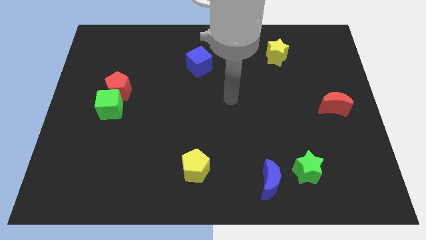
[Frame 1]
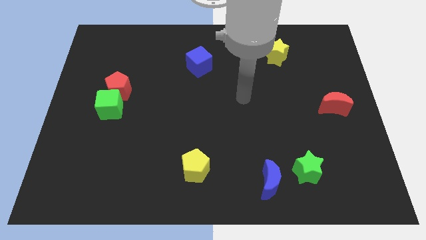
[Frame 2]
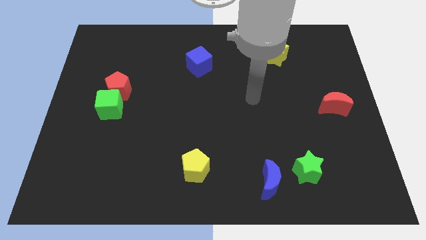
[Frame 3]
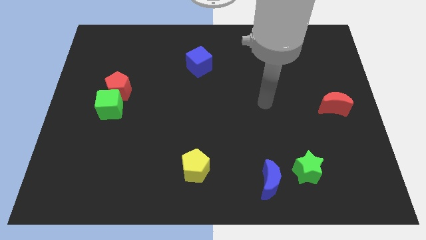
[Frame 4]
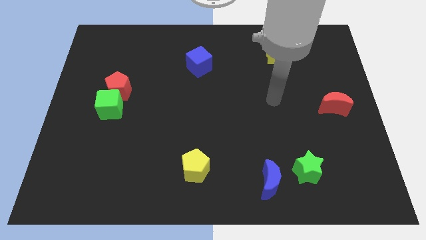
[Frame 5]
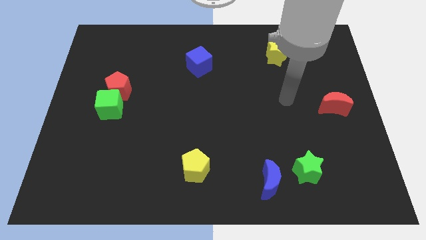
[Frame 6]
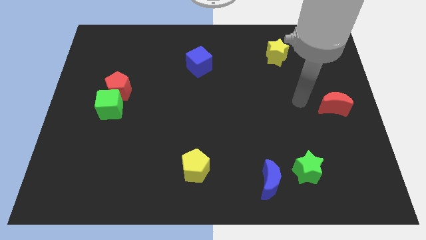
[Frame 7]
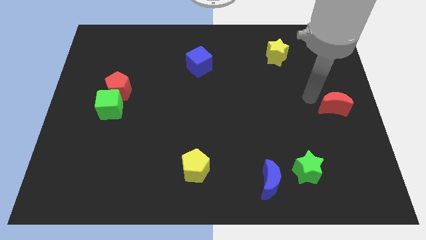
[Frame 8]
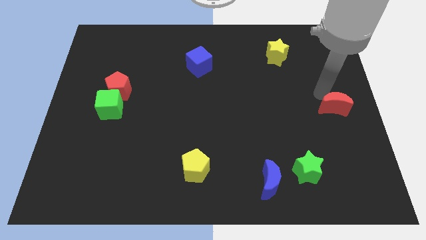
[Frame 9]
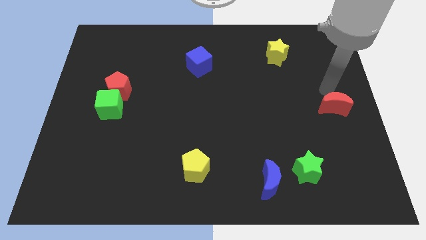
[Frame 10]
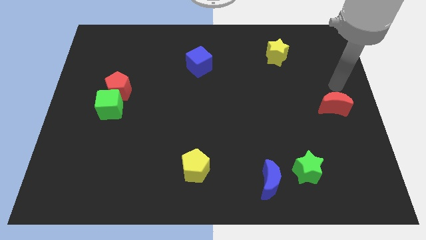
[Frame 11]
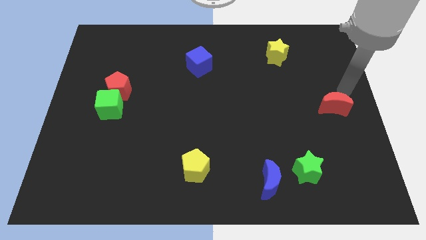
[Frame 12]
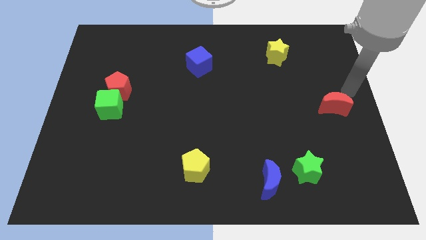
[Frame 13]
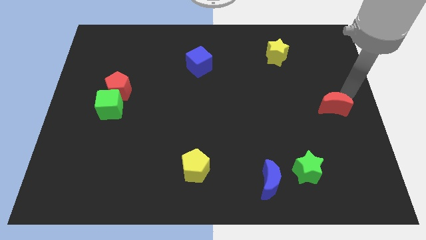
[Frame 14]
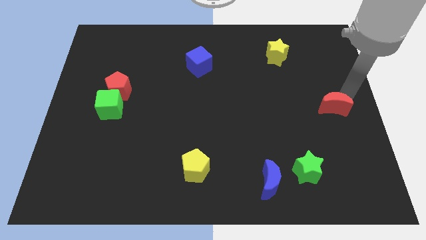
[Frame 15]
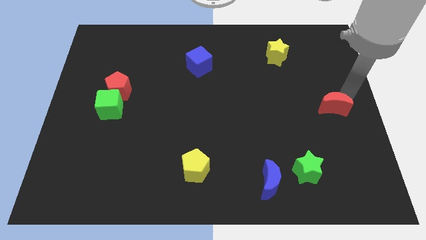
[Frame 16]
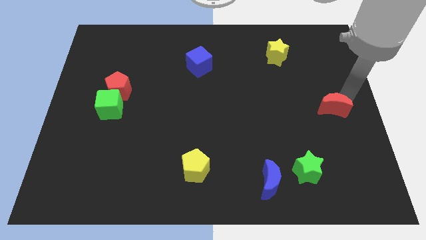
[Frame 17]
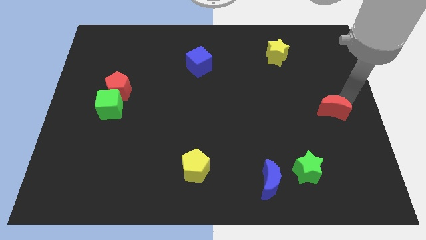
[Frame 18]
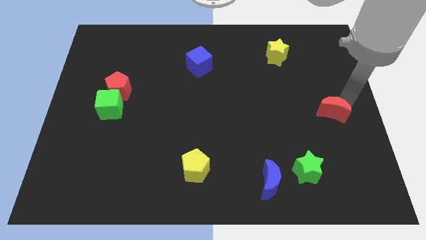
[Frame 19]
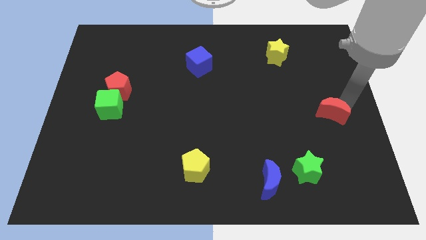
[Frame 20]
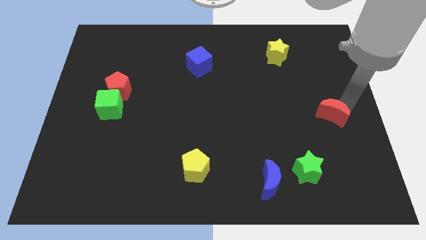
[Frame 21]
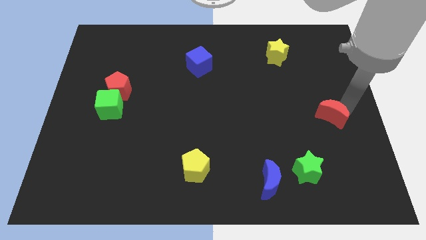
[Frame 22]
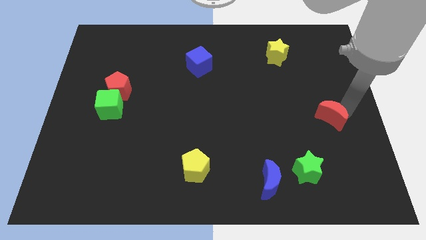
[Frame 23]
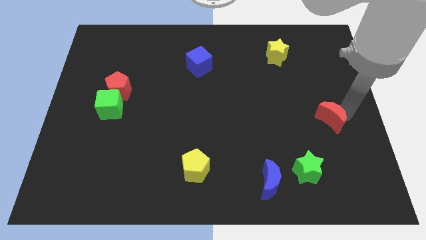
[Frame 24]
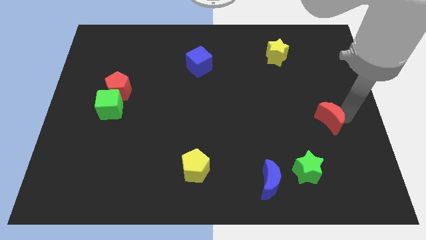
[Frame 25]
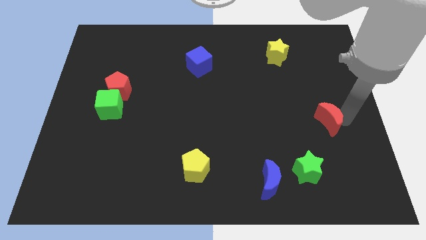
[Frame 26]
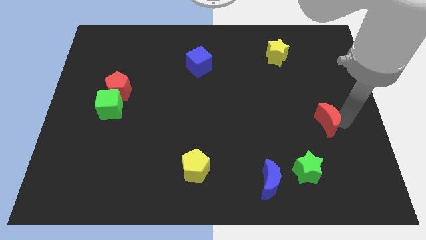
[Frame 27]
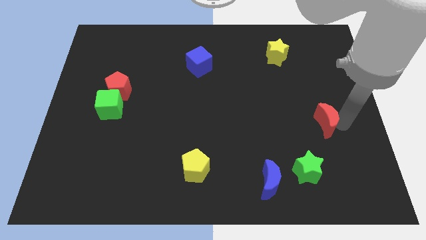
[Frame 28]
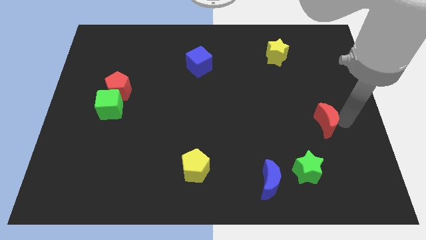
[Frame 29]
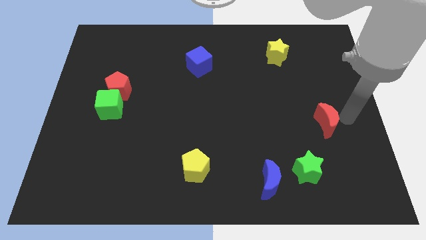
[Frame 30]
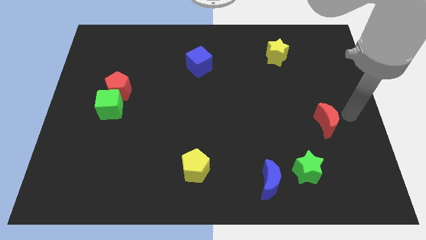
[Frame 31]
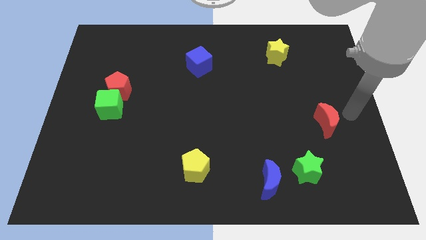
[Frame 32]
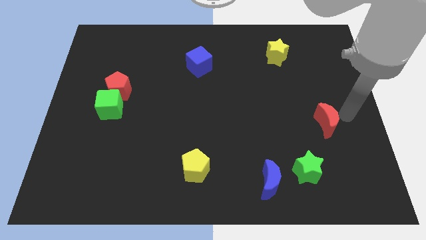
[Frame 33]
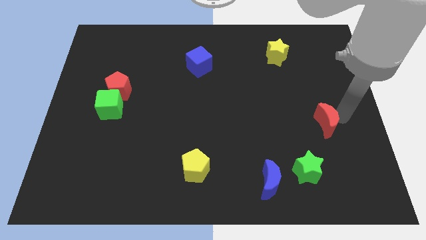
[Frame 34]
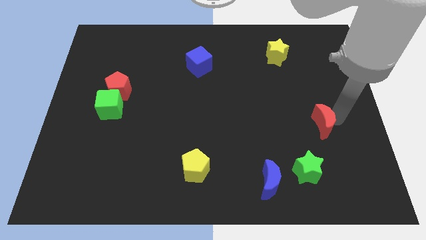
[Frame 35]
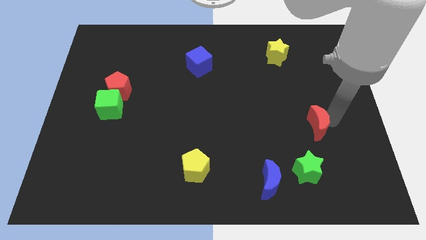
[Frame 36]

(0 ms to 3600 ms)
slightly move the red moon downwards and left diagonally

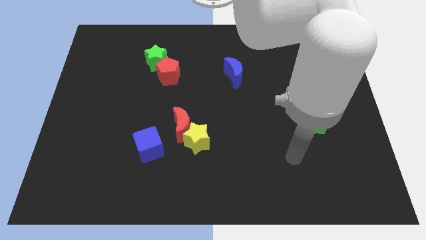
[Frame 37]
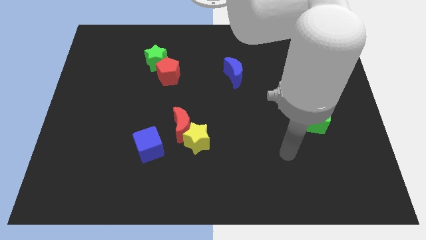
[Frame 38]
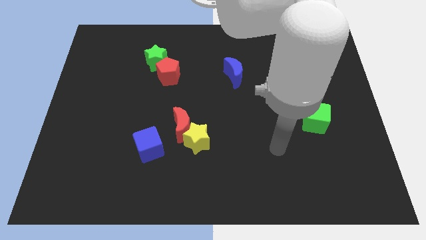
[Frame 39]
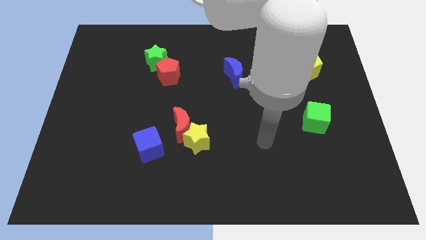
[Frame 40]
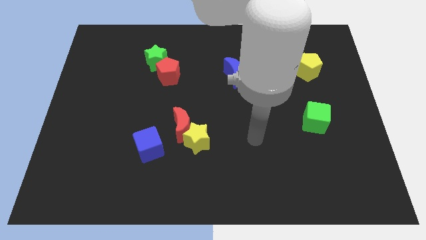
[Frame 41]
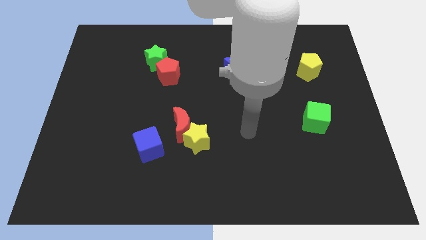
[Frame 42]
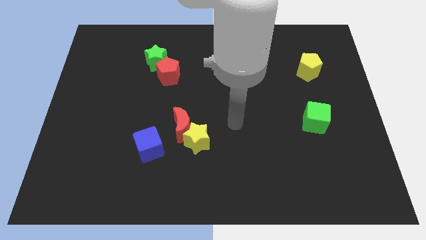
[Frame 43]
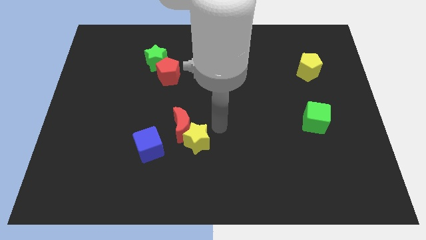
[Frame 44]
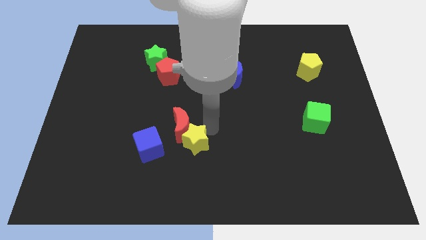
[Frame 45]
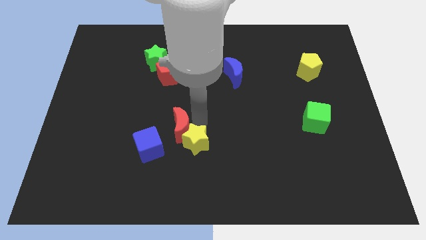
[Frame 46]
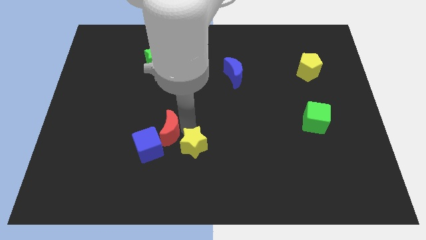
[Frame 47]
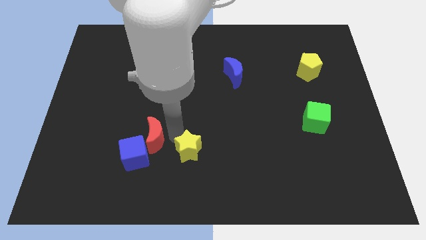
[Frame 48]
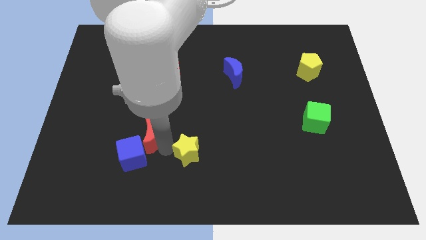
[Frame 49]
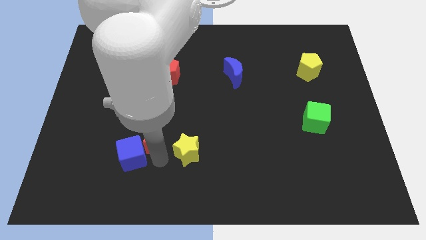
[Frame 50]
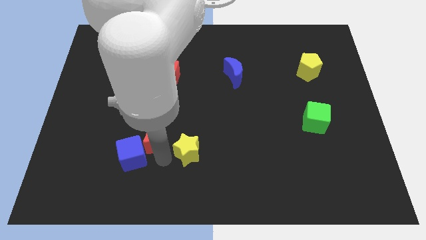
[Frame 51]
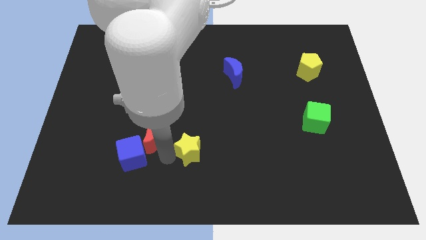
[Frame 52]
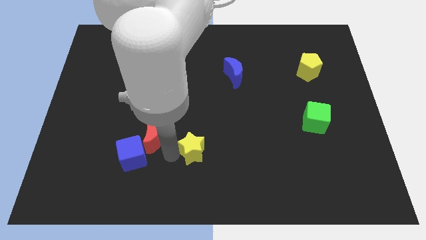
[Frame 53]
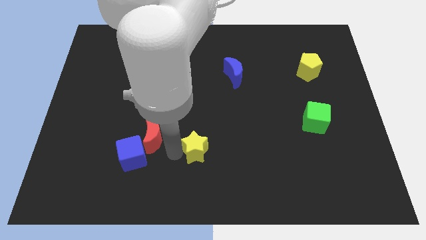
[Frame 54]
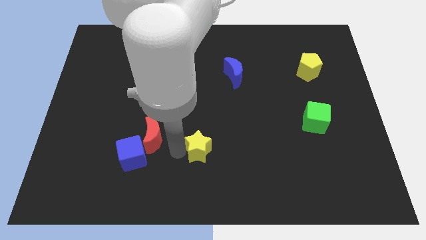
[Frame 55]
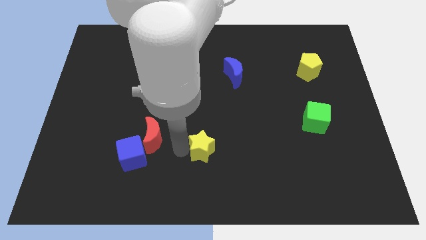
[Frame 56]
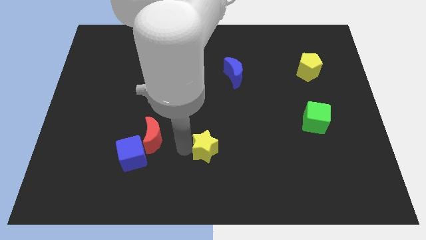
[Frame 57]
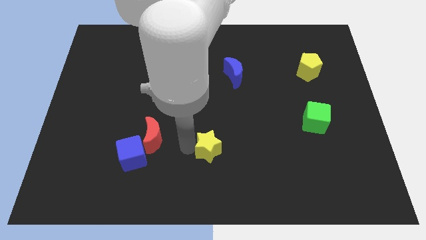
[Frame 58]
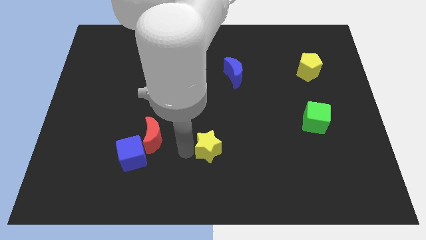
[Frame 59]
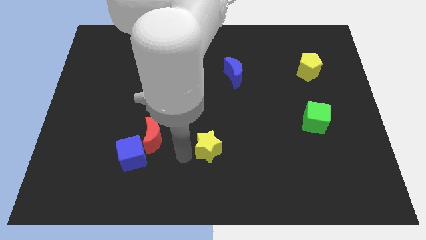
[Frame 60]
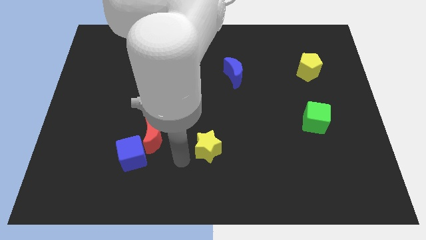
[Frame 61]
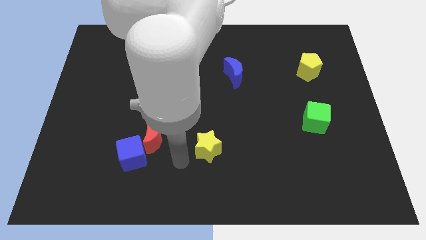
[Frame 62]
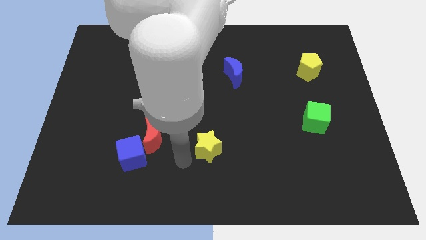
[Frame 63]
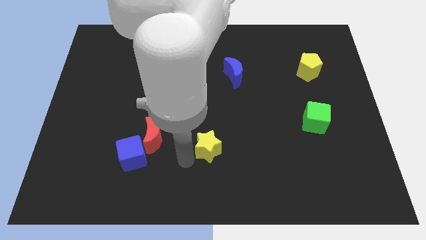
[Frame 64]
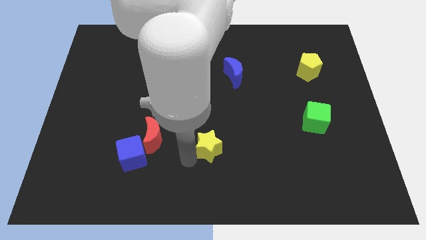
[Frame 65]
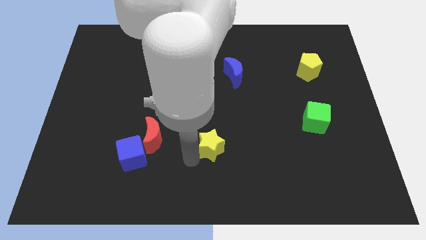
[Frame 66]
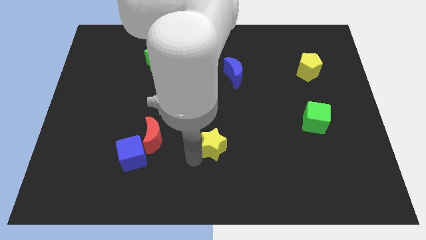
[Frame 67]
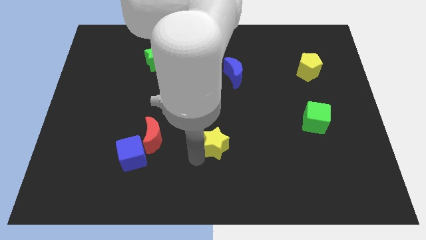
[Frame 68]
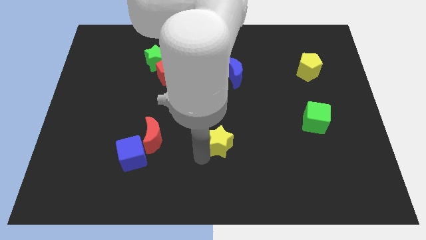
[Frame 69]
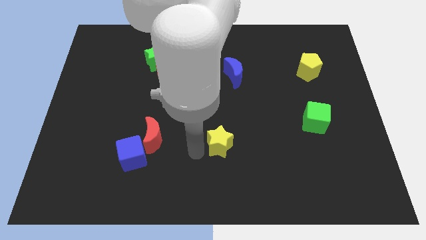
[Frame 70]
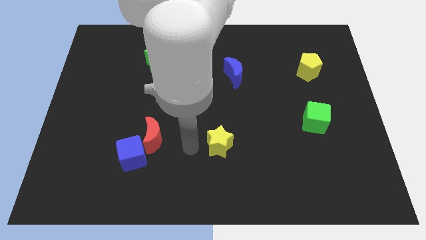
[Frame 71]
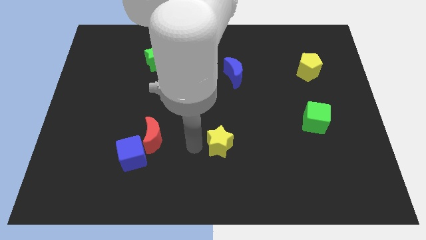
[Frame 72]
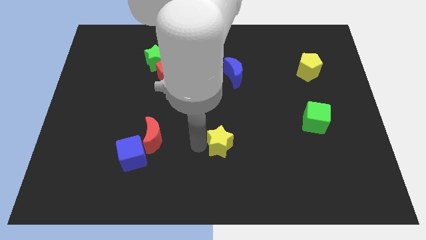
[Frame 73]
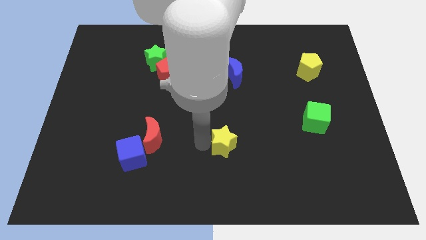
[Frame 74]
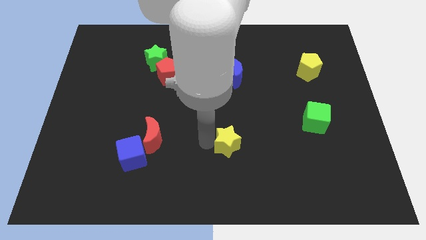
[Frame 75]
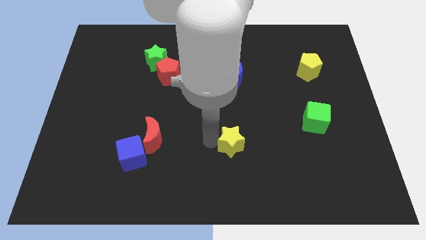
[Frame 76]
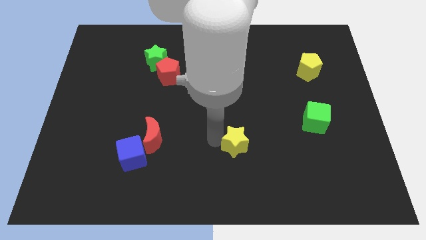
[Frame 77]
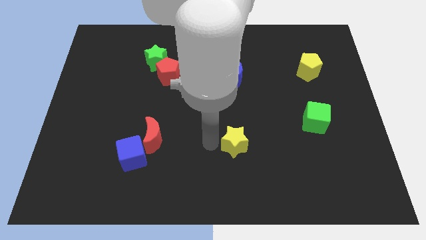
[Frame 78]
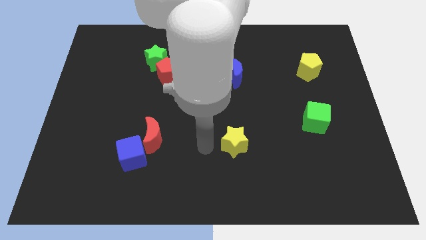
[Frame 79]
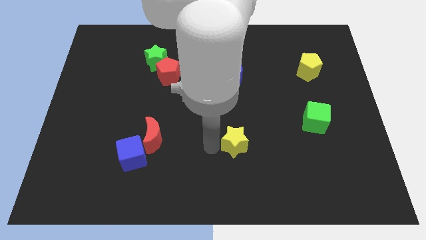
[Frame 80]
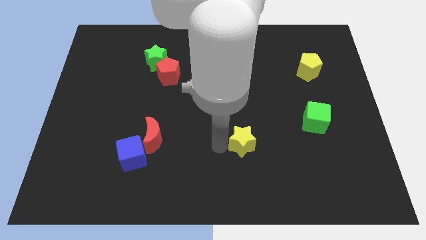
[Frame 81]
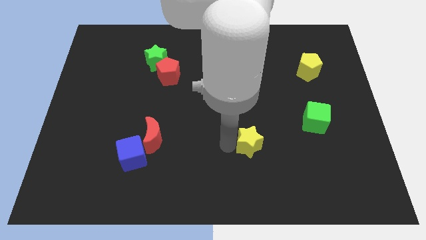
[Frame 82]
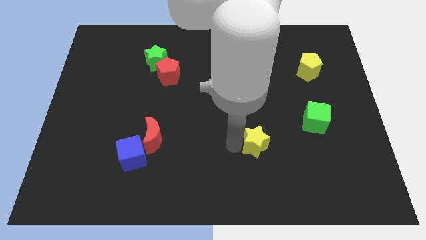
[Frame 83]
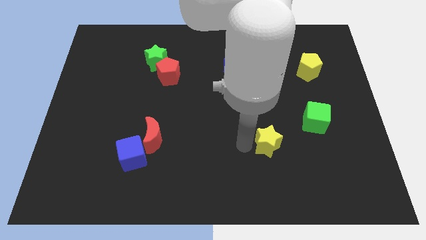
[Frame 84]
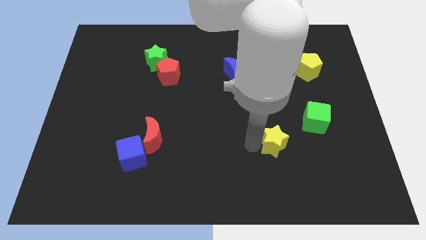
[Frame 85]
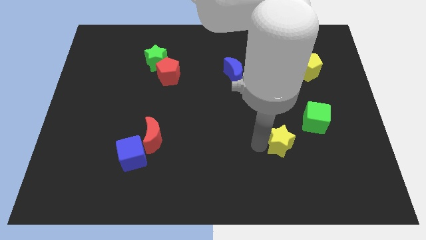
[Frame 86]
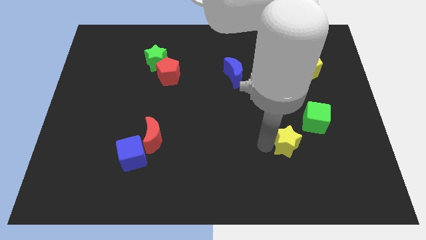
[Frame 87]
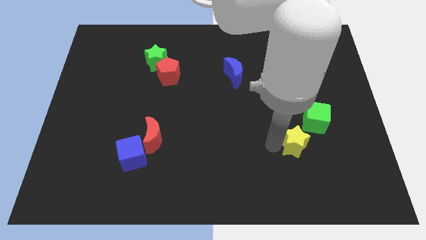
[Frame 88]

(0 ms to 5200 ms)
push the yellow star to the right
